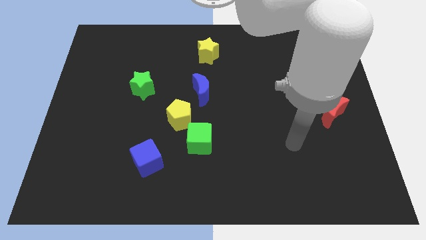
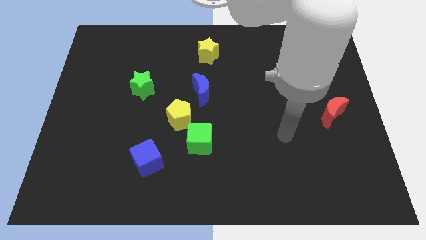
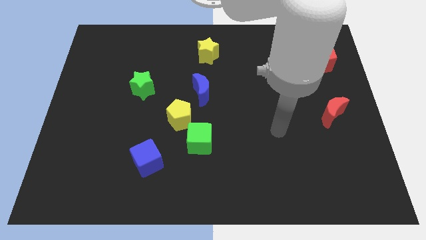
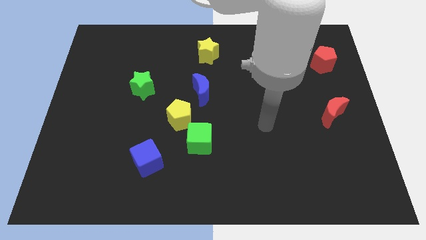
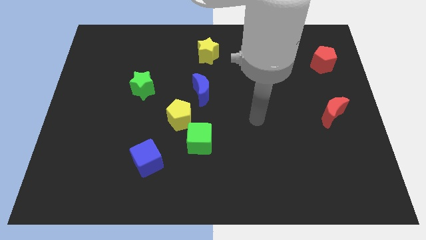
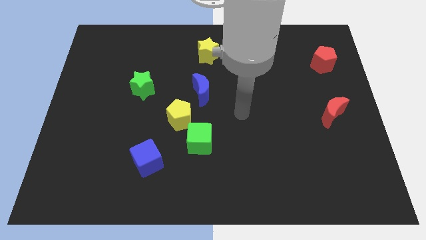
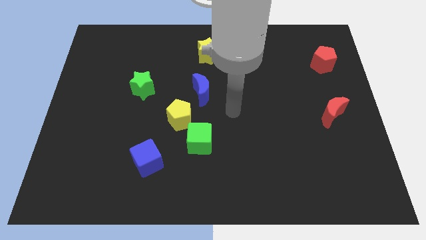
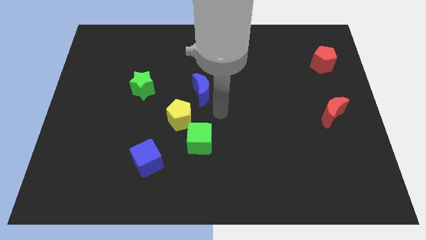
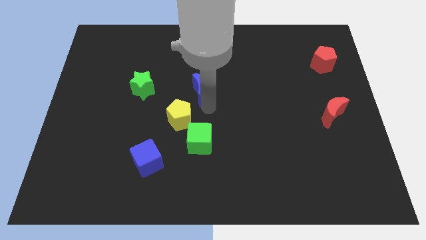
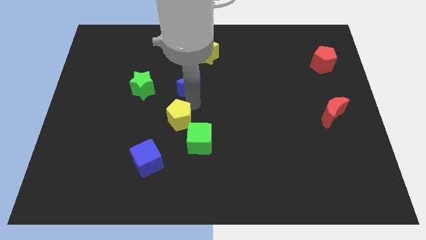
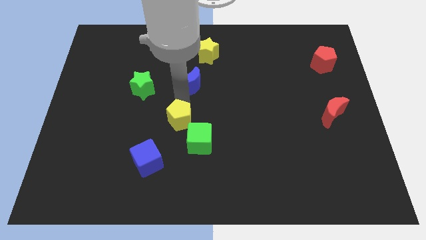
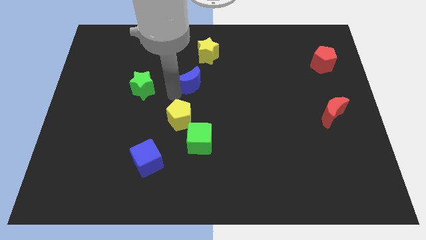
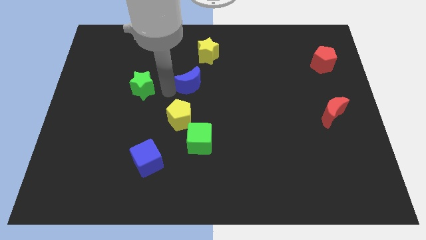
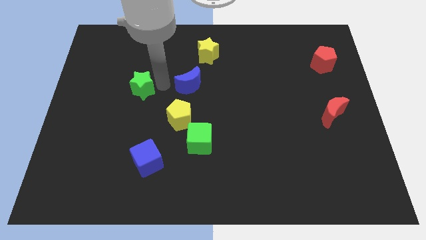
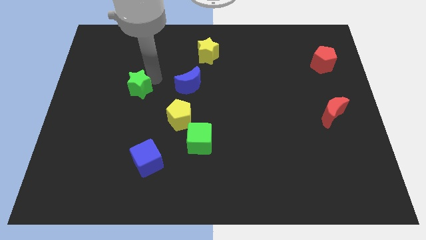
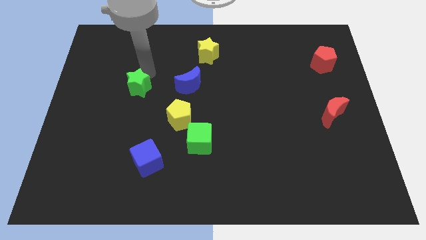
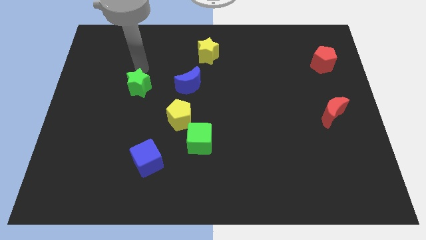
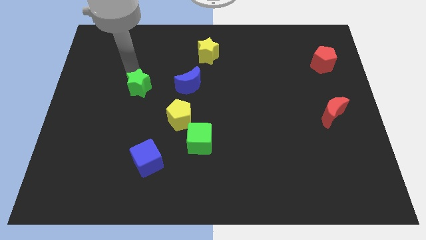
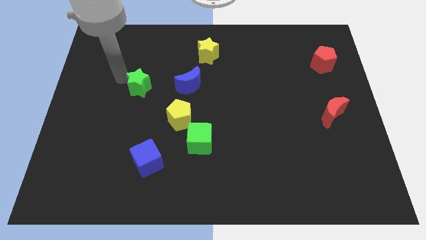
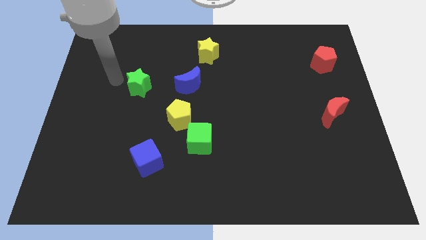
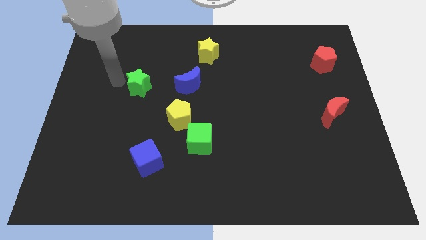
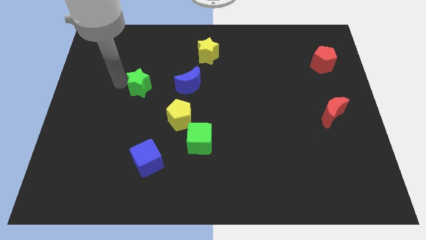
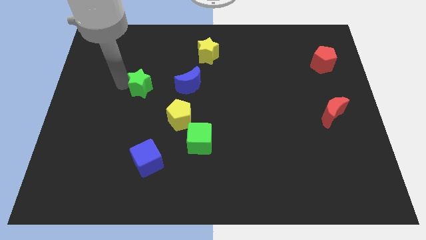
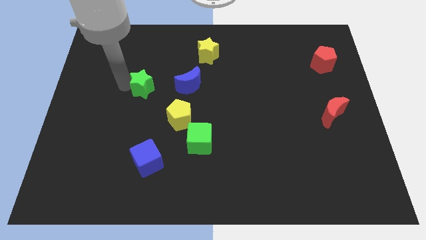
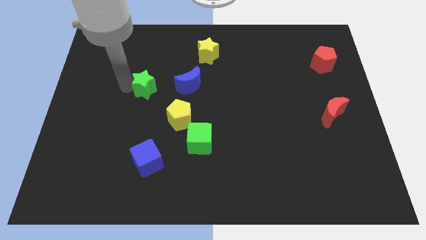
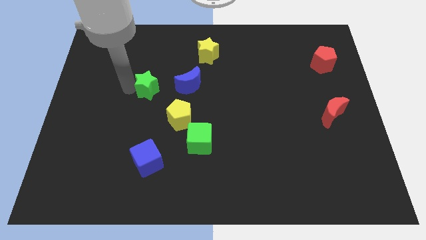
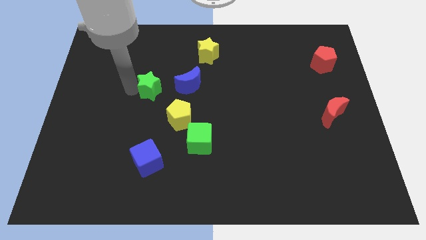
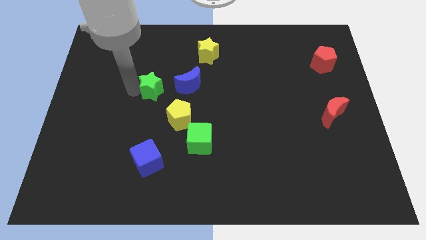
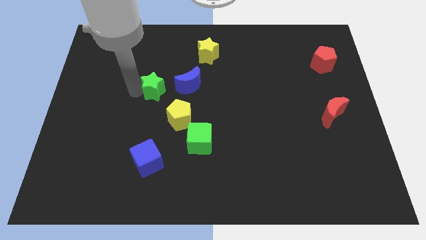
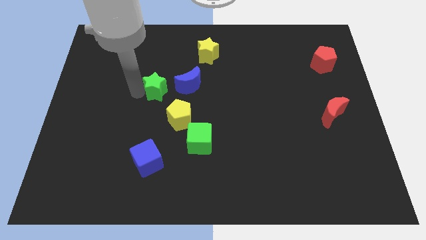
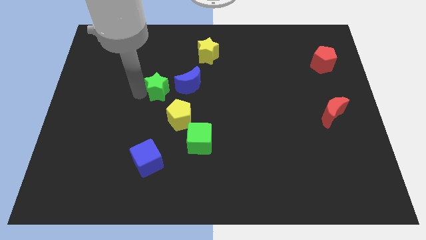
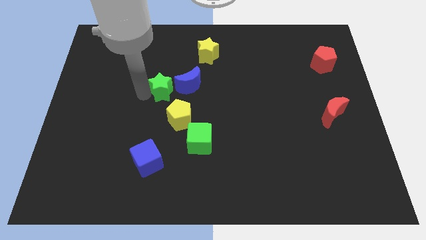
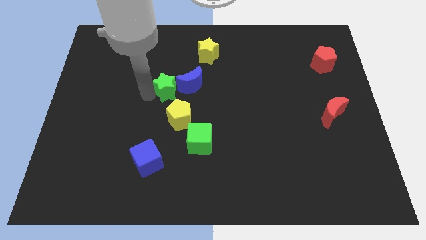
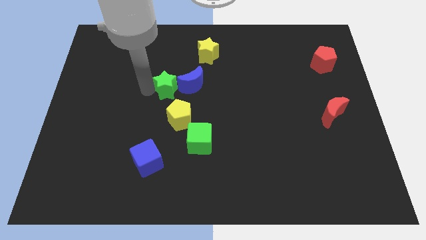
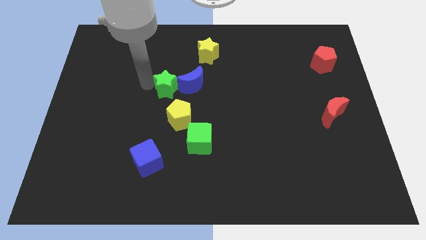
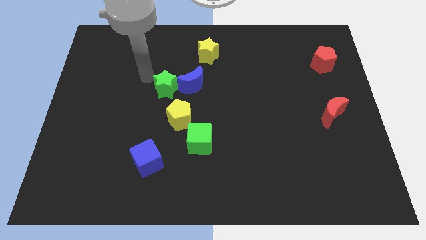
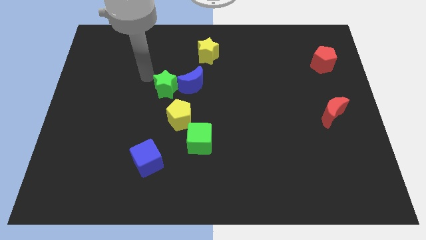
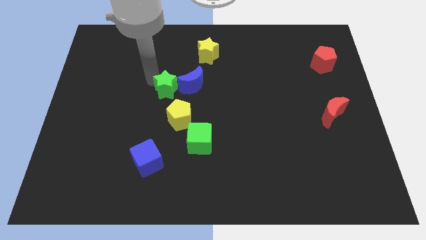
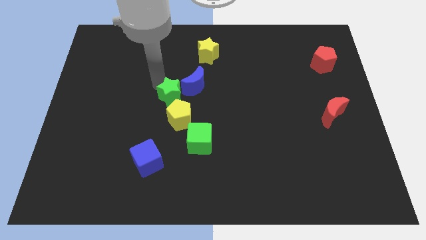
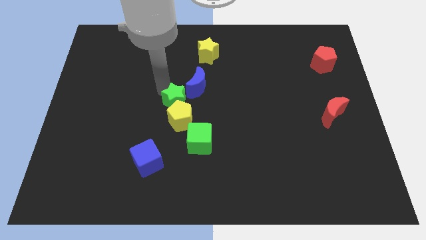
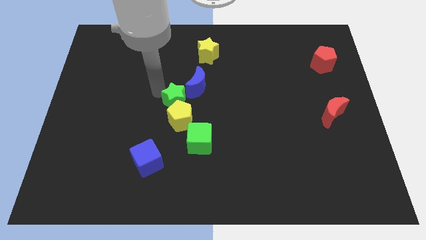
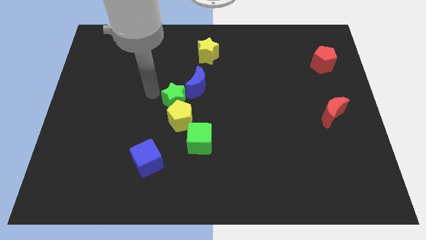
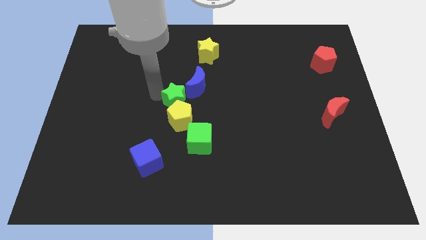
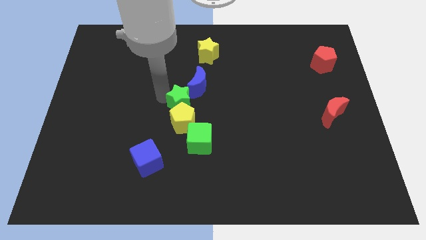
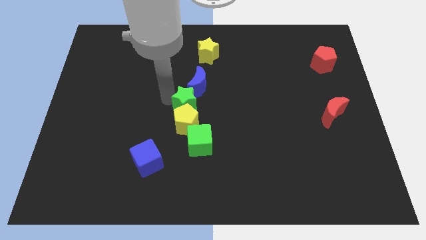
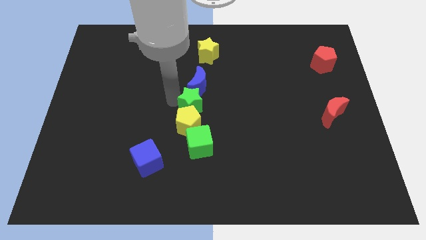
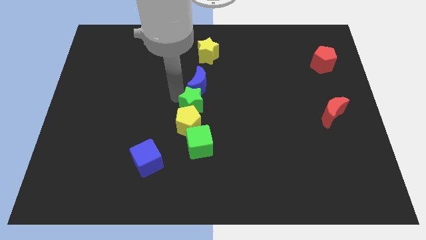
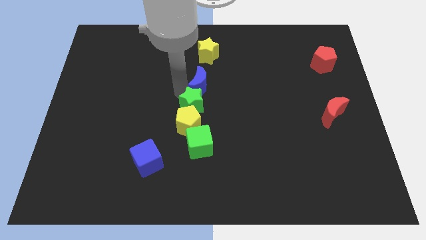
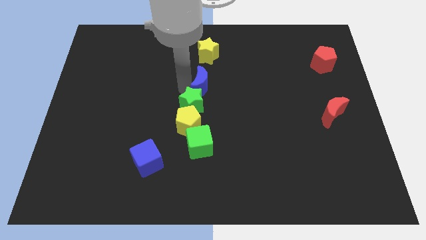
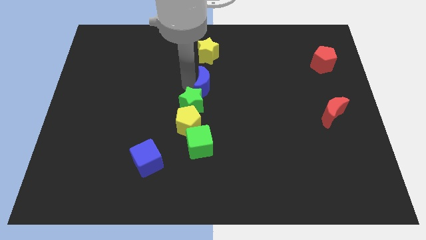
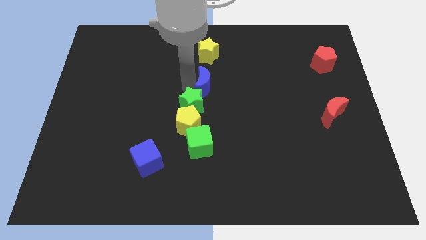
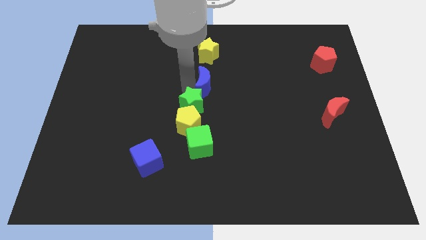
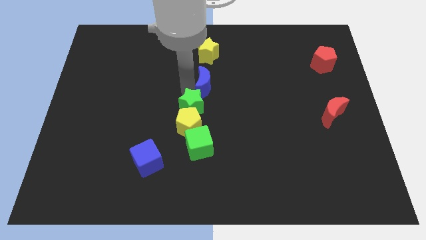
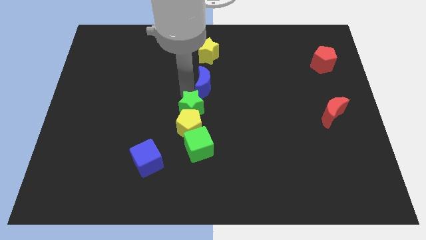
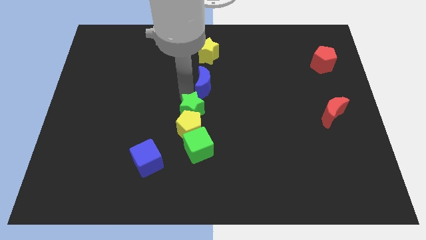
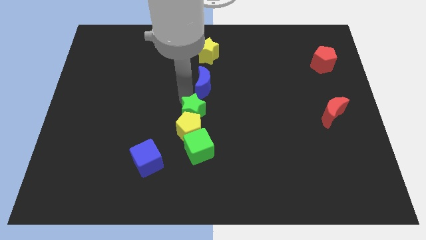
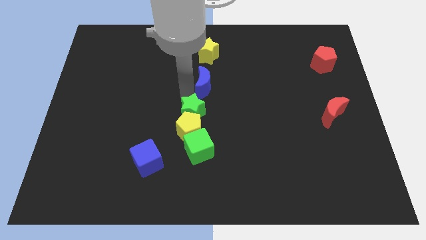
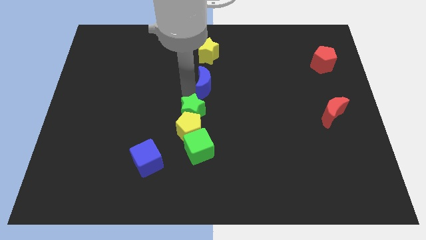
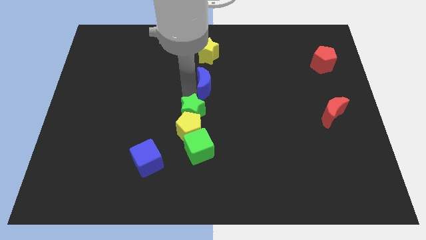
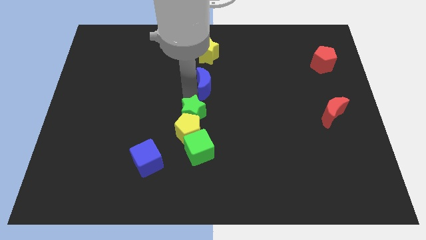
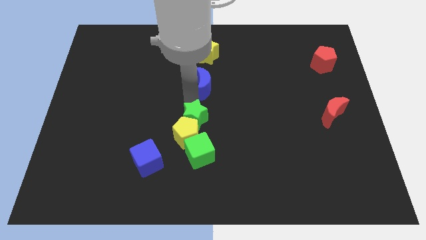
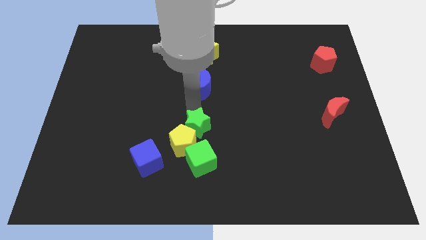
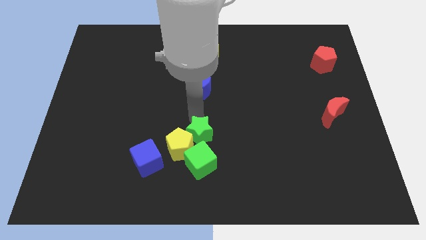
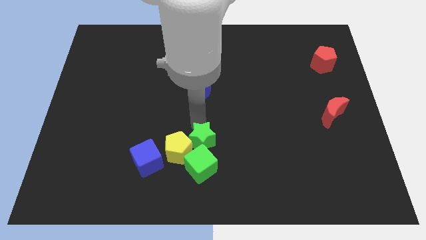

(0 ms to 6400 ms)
put the green star next to the green cube

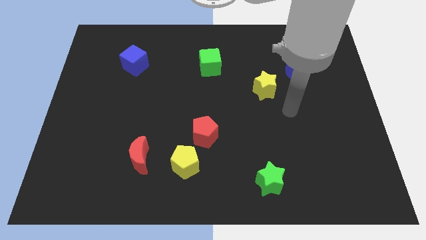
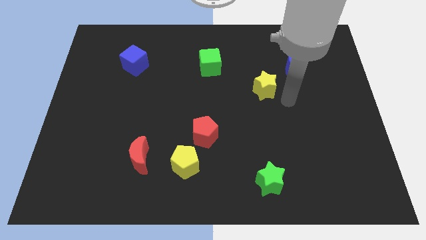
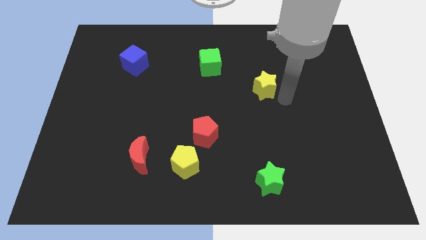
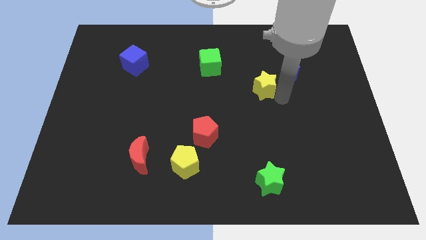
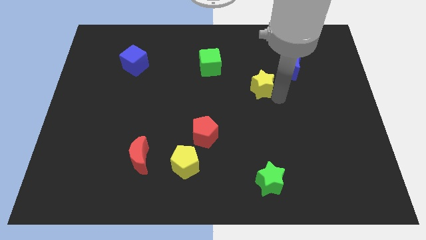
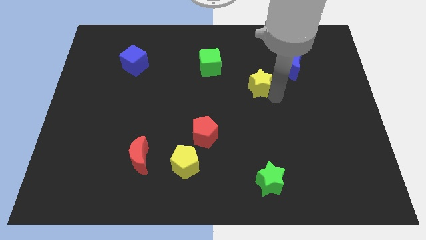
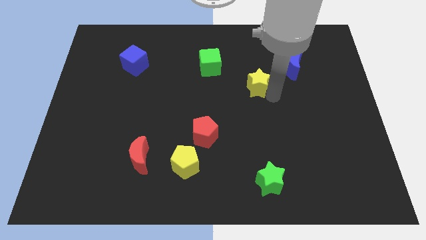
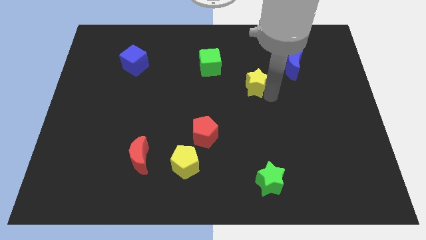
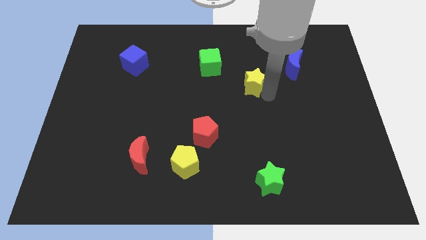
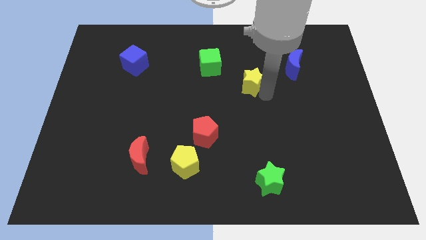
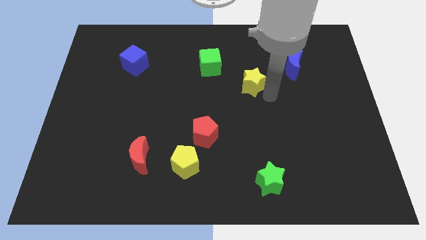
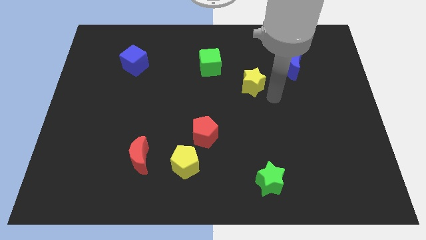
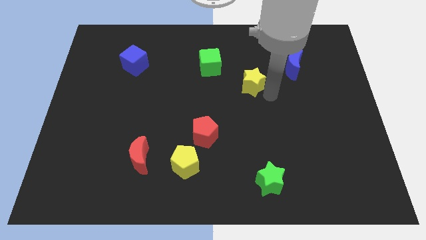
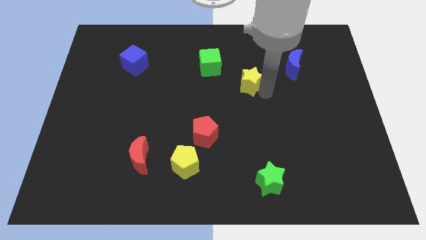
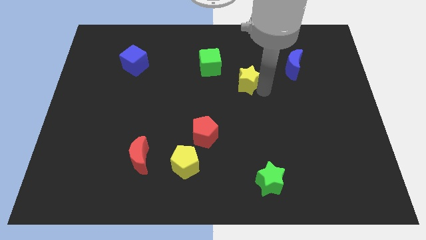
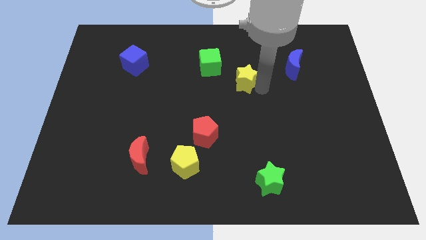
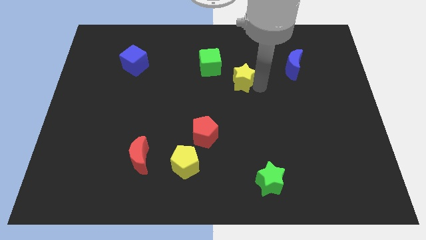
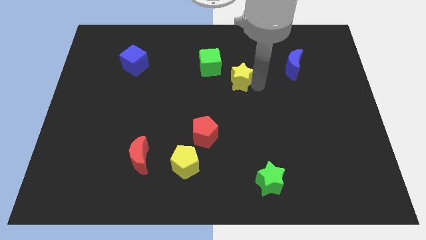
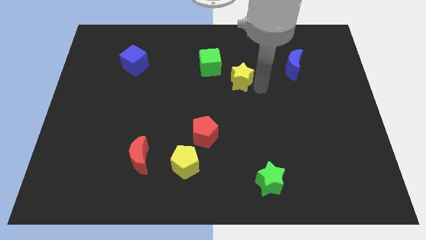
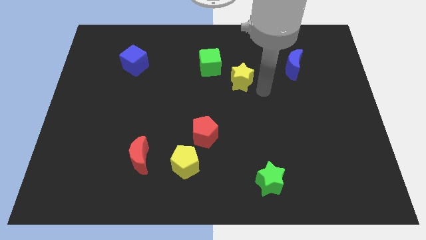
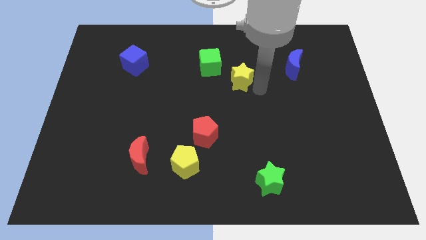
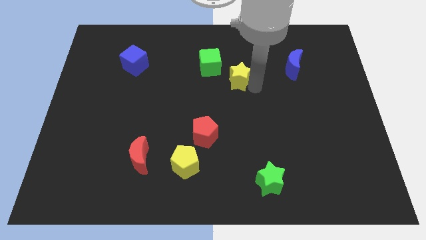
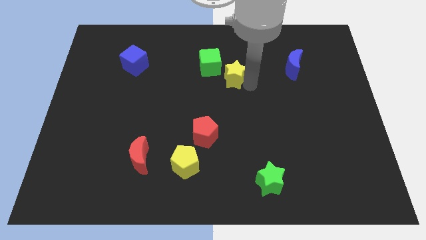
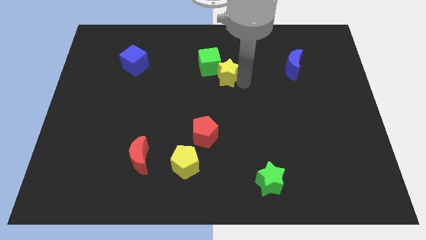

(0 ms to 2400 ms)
put the yellow star towards the green cube
